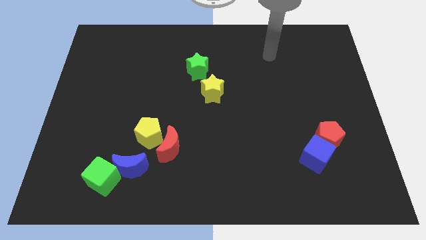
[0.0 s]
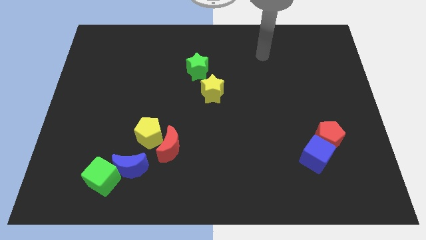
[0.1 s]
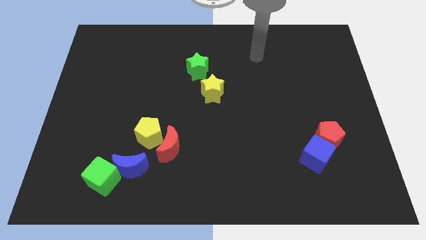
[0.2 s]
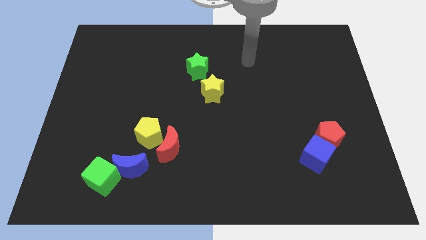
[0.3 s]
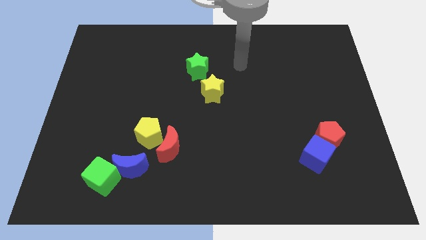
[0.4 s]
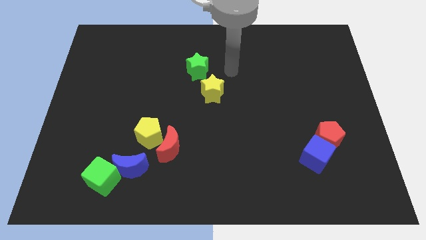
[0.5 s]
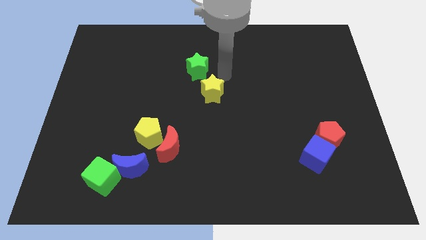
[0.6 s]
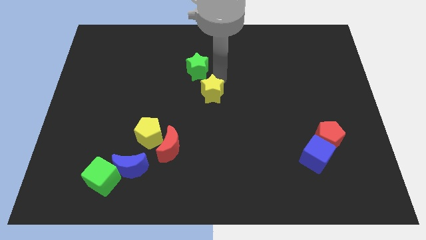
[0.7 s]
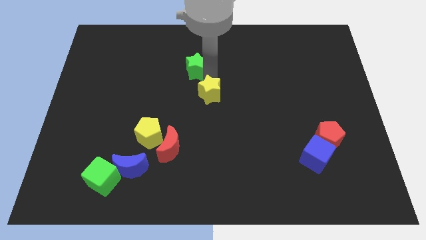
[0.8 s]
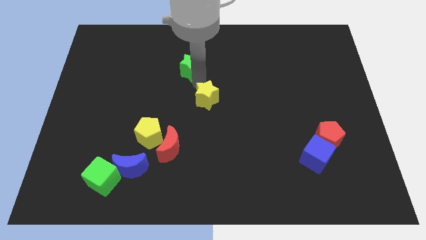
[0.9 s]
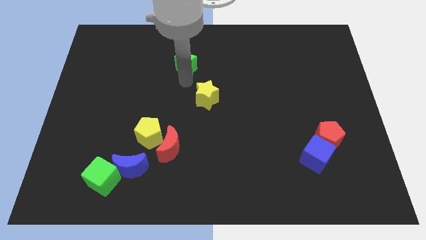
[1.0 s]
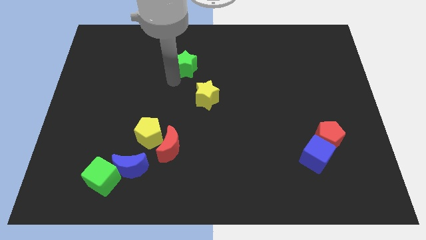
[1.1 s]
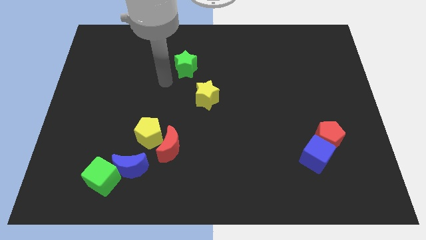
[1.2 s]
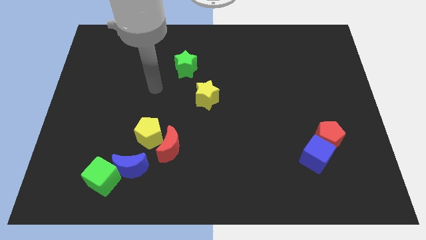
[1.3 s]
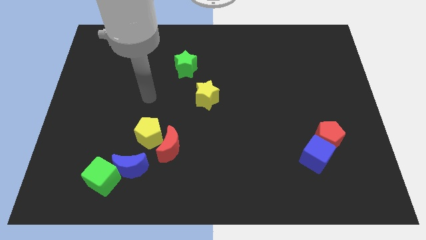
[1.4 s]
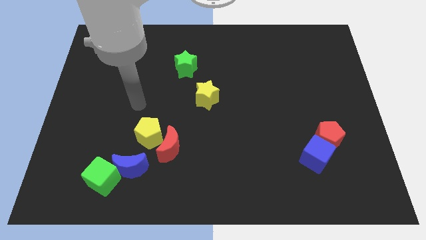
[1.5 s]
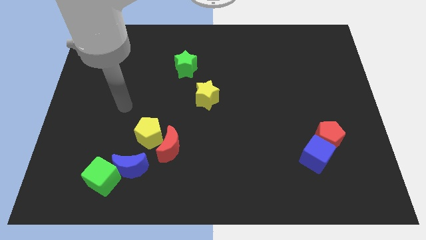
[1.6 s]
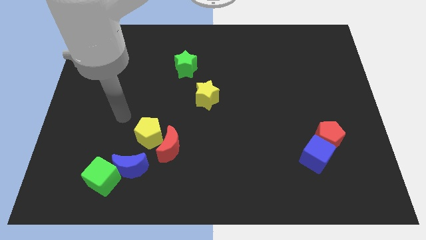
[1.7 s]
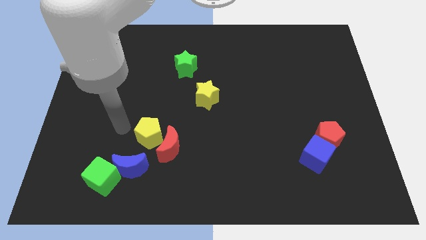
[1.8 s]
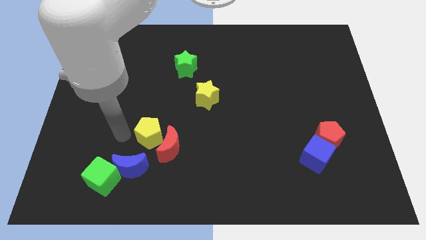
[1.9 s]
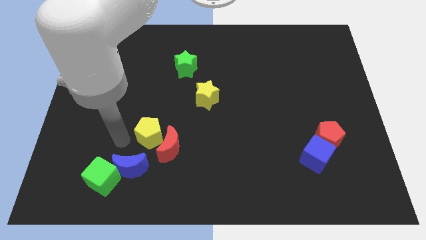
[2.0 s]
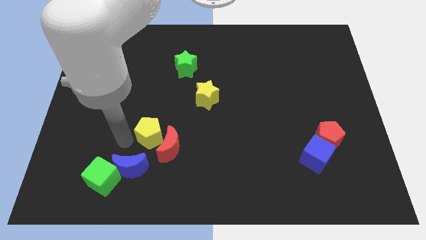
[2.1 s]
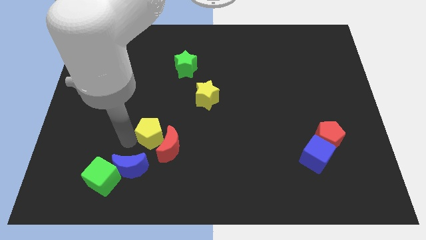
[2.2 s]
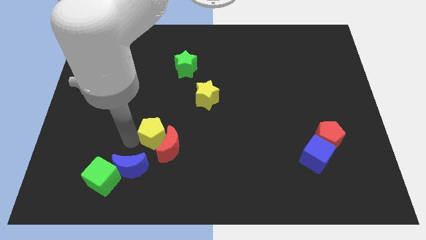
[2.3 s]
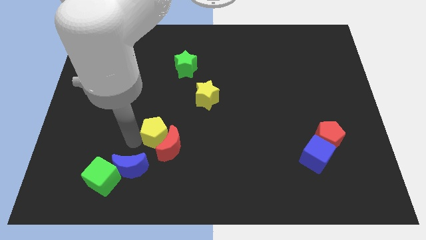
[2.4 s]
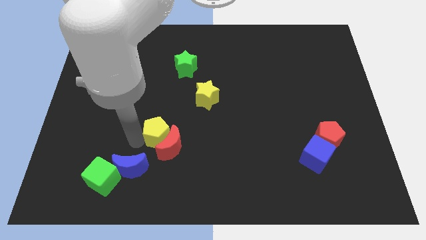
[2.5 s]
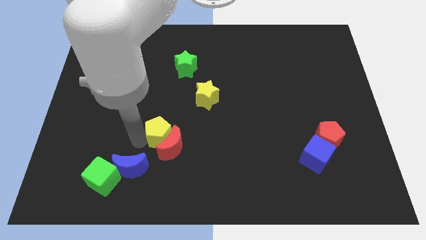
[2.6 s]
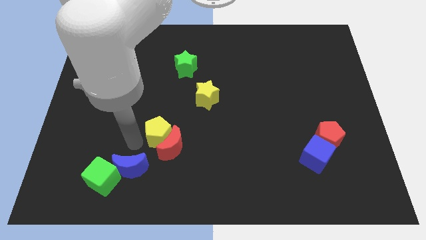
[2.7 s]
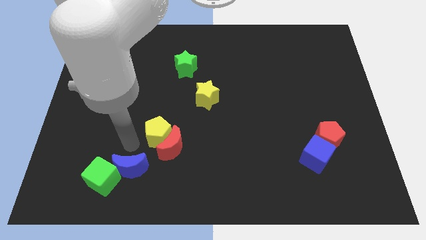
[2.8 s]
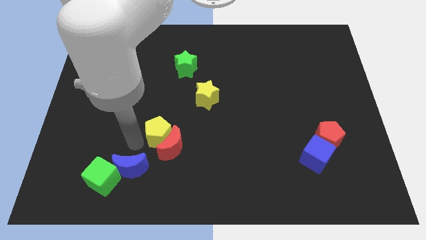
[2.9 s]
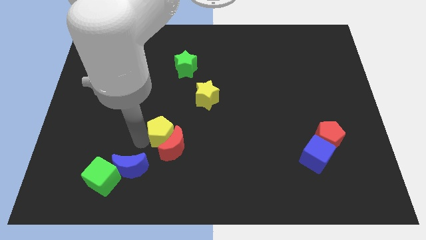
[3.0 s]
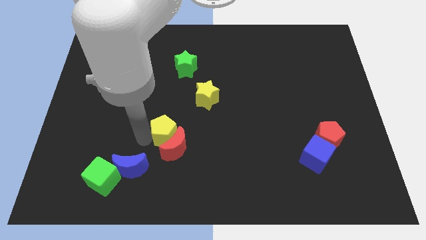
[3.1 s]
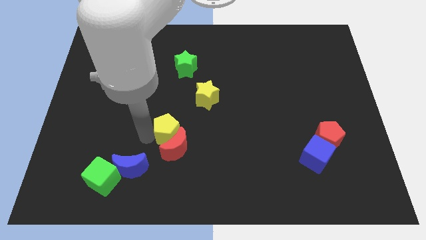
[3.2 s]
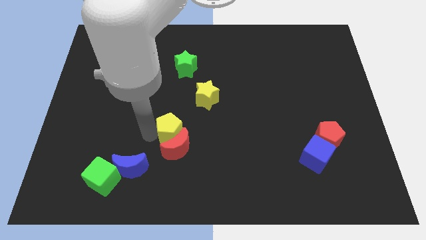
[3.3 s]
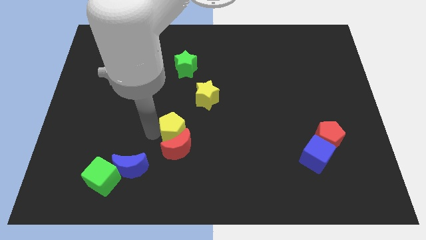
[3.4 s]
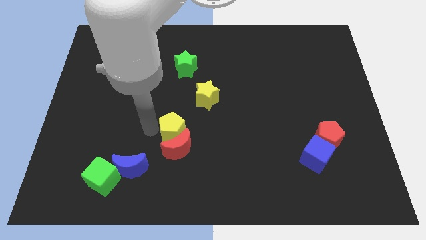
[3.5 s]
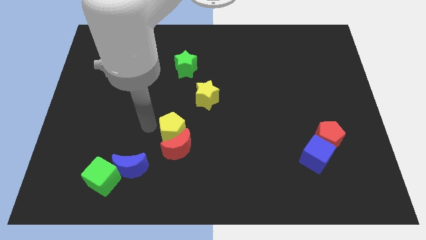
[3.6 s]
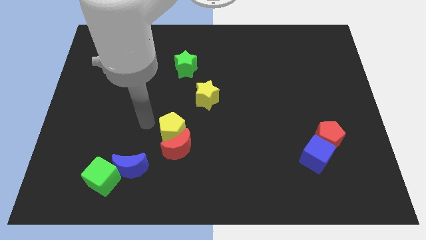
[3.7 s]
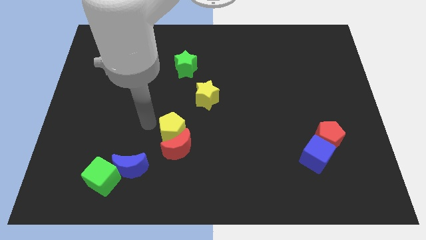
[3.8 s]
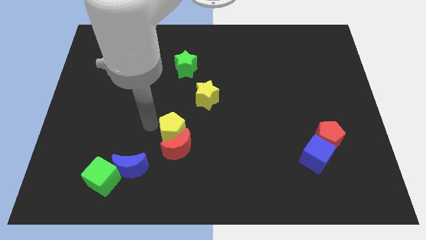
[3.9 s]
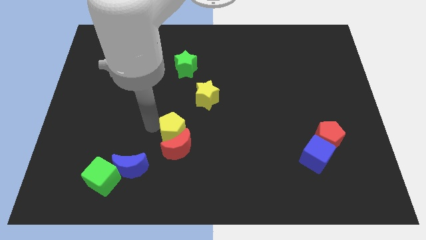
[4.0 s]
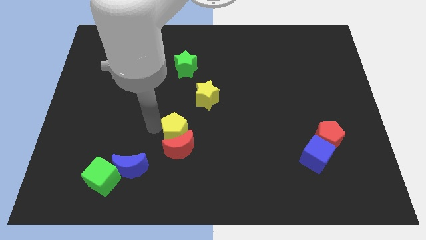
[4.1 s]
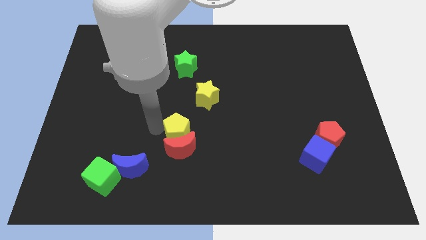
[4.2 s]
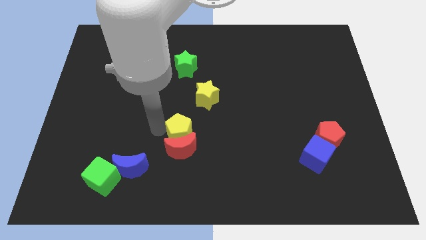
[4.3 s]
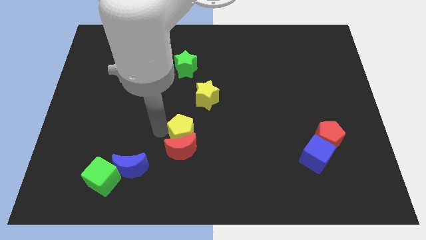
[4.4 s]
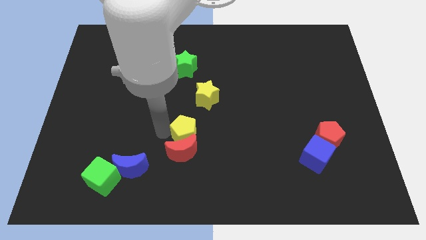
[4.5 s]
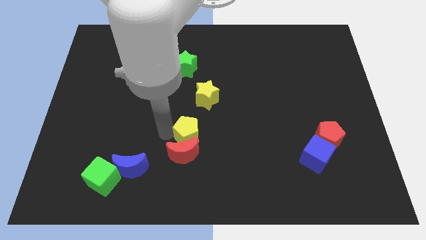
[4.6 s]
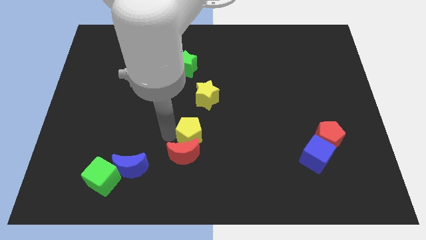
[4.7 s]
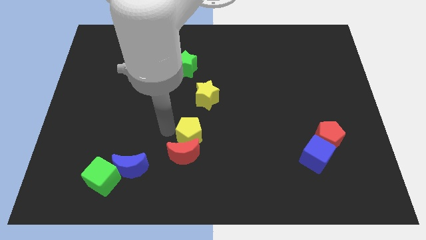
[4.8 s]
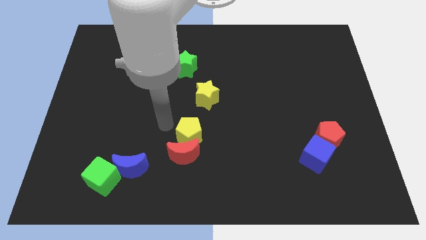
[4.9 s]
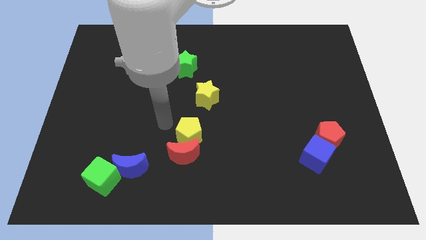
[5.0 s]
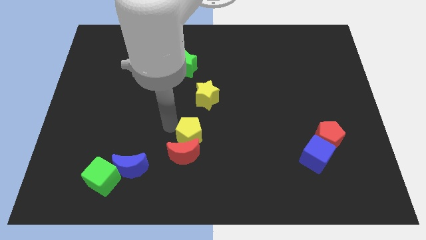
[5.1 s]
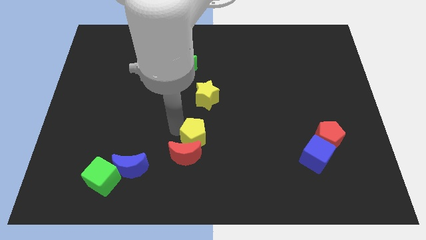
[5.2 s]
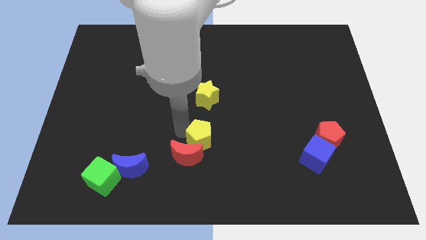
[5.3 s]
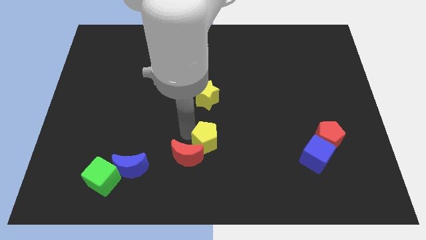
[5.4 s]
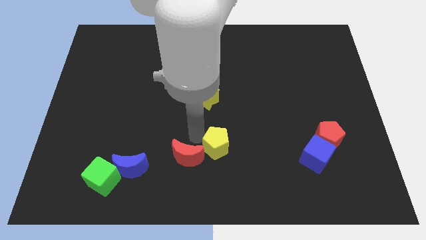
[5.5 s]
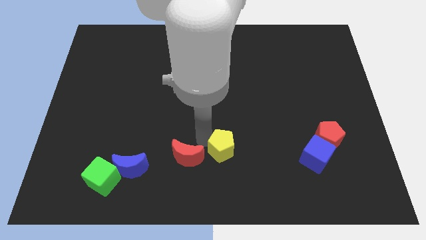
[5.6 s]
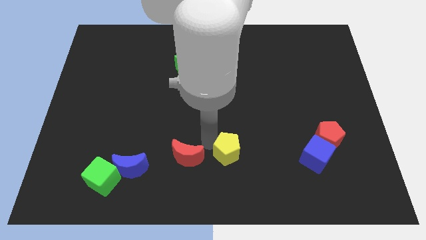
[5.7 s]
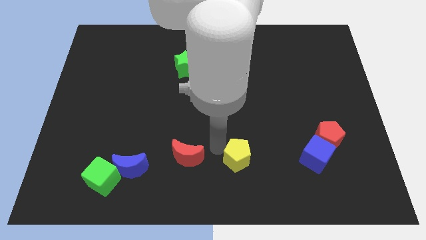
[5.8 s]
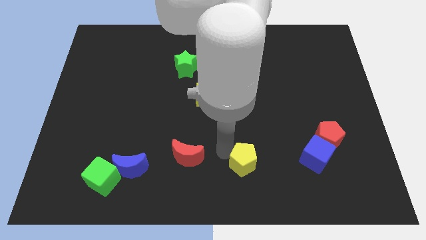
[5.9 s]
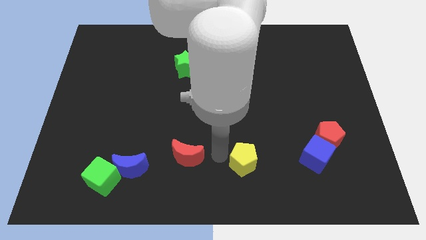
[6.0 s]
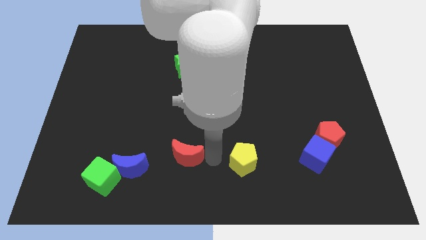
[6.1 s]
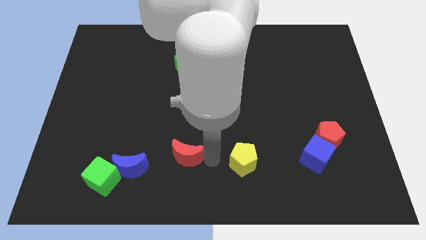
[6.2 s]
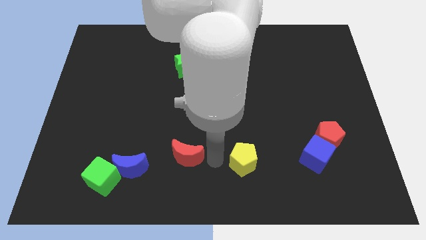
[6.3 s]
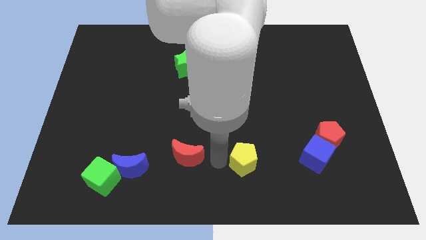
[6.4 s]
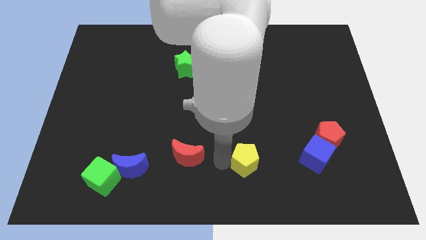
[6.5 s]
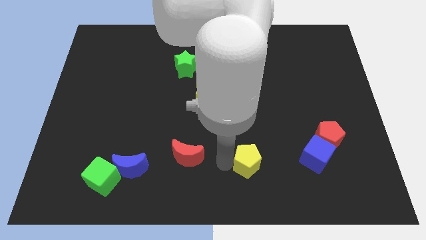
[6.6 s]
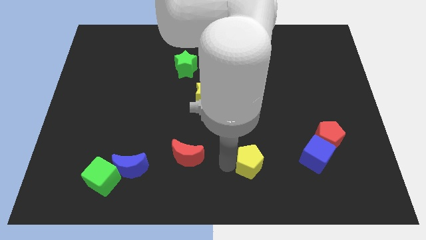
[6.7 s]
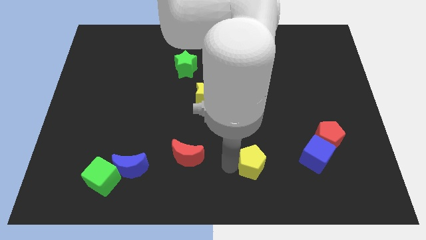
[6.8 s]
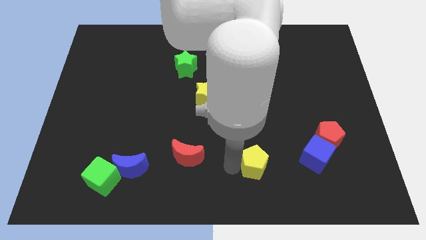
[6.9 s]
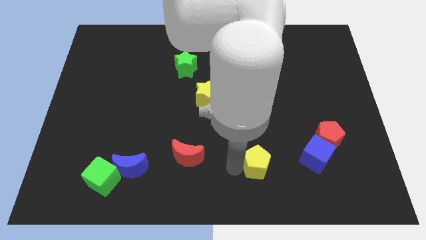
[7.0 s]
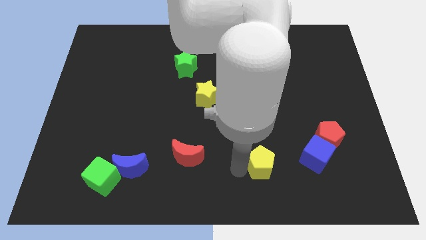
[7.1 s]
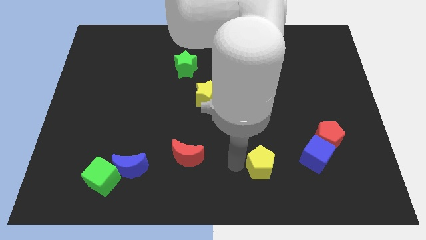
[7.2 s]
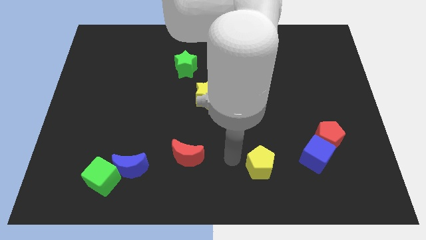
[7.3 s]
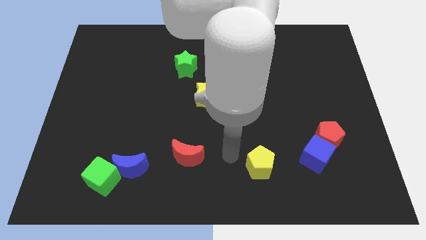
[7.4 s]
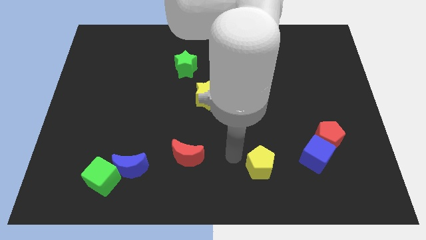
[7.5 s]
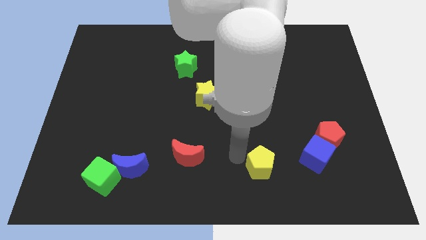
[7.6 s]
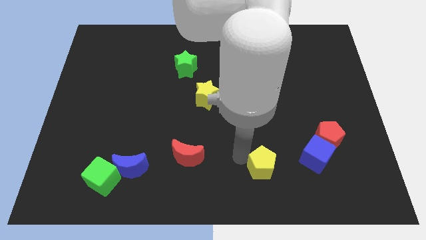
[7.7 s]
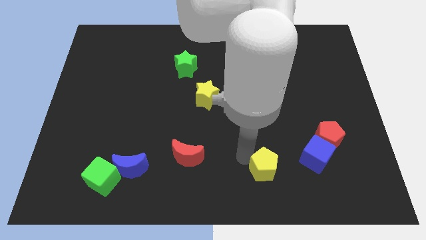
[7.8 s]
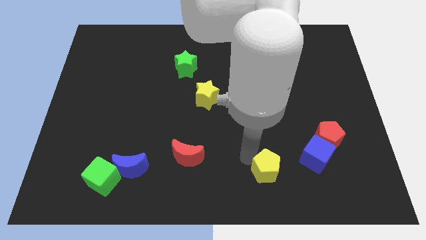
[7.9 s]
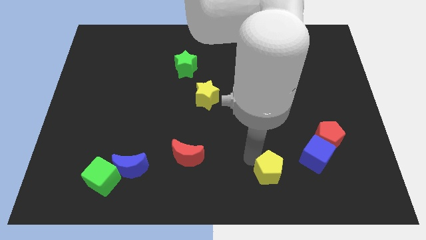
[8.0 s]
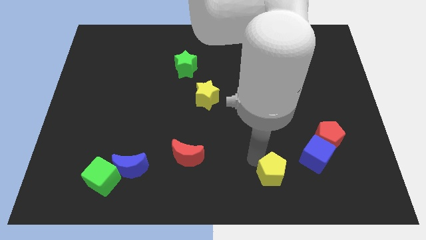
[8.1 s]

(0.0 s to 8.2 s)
push the yellow pentagon to the bottom left of the blue cube
